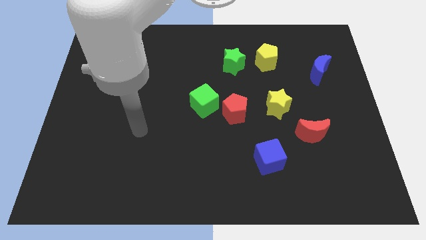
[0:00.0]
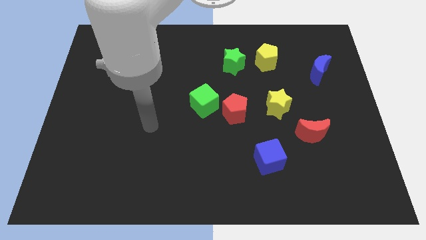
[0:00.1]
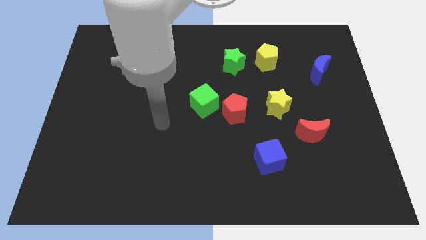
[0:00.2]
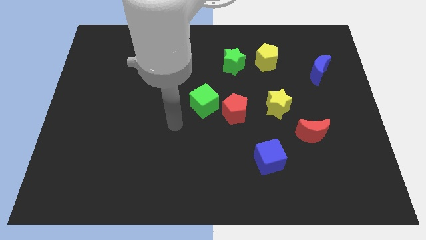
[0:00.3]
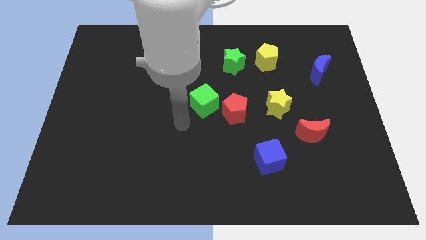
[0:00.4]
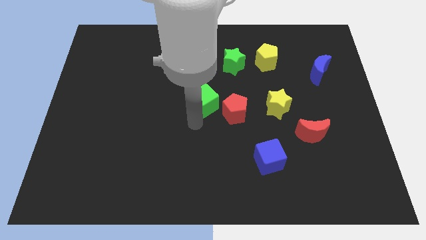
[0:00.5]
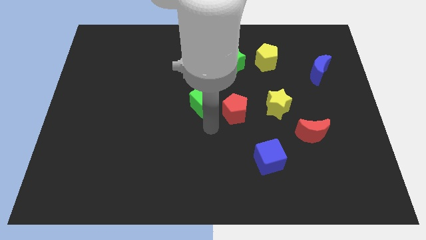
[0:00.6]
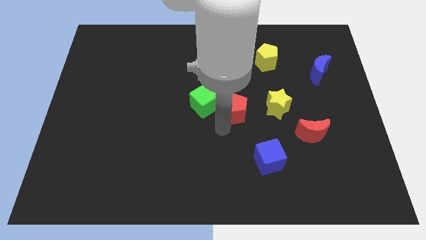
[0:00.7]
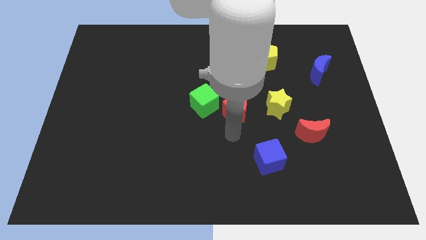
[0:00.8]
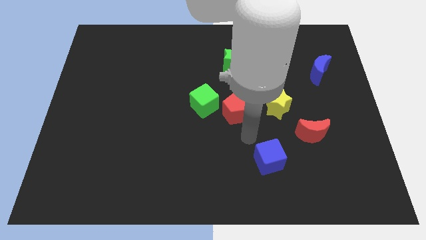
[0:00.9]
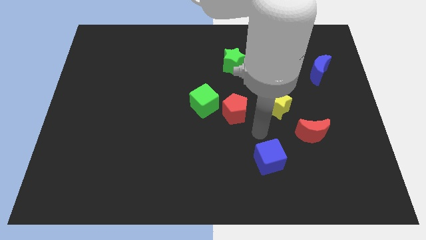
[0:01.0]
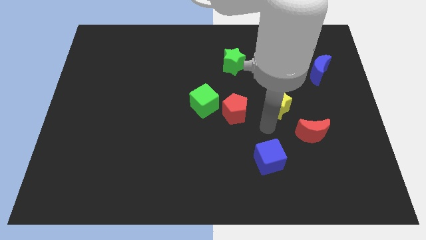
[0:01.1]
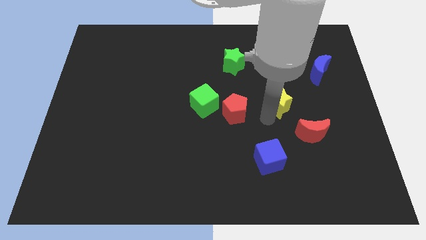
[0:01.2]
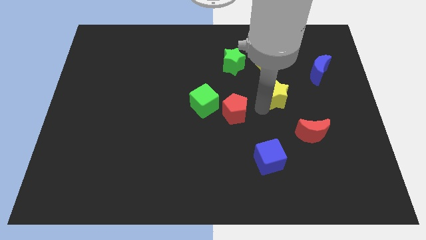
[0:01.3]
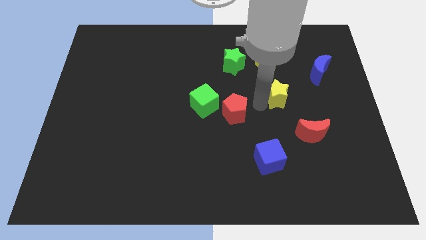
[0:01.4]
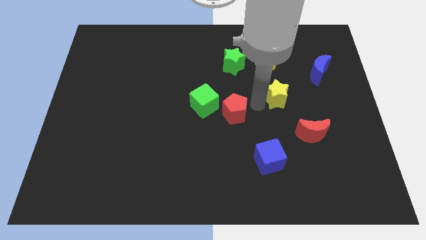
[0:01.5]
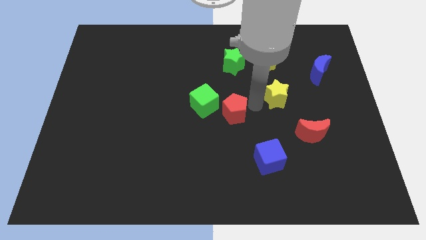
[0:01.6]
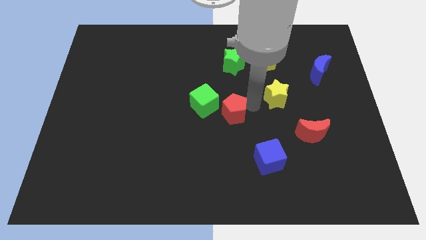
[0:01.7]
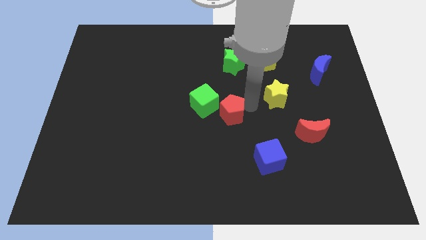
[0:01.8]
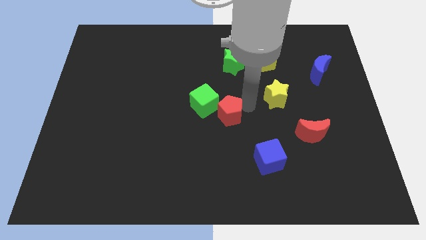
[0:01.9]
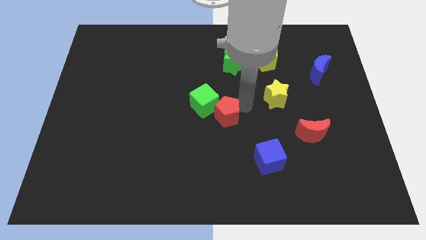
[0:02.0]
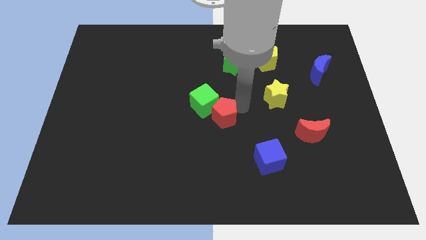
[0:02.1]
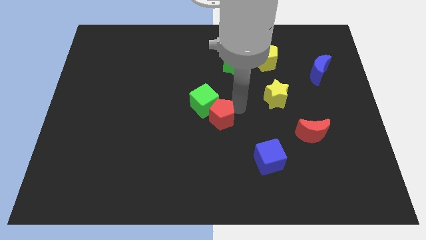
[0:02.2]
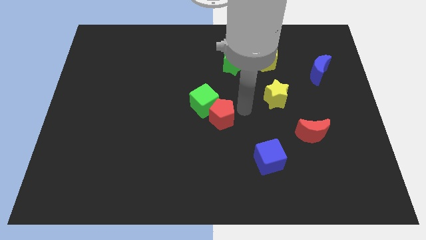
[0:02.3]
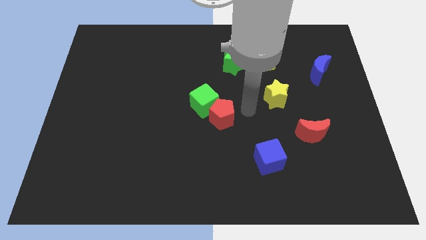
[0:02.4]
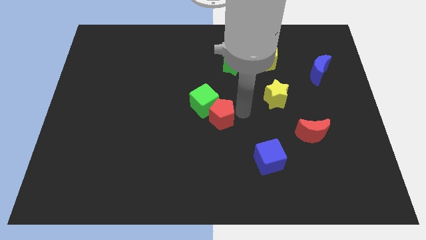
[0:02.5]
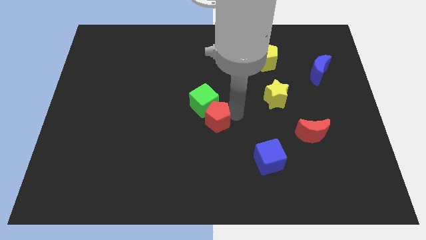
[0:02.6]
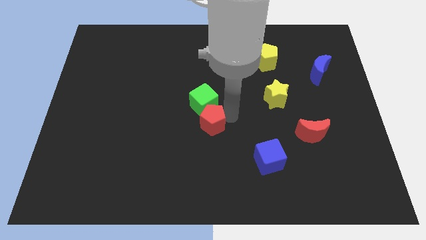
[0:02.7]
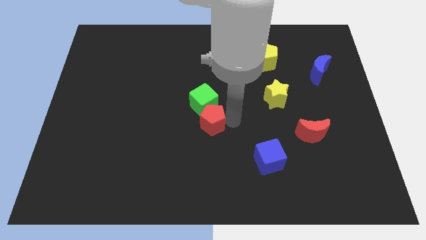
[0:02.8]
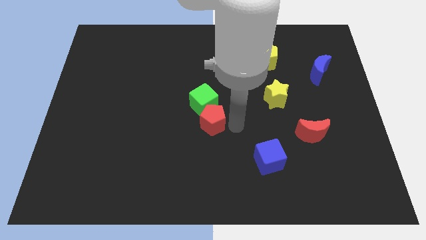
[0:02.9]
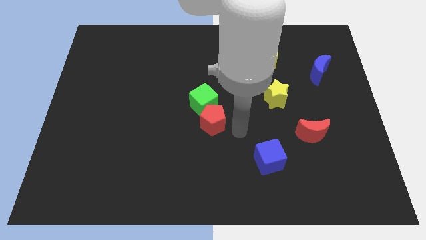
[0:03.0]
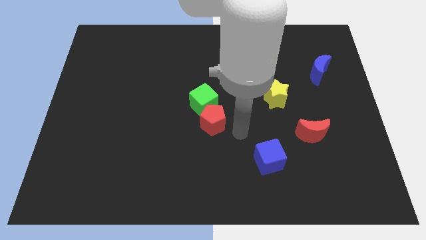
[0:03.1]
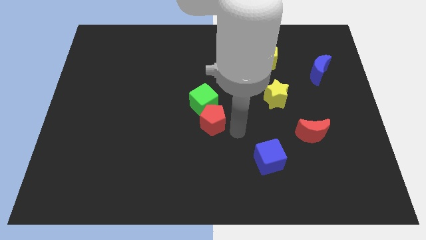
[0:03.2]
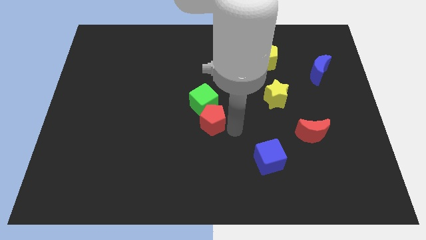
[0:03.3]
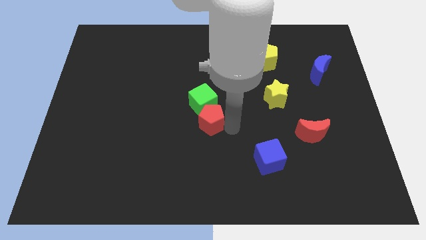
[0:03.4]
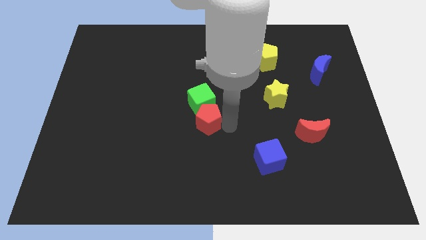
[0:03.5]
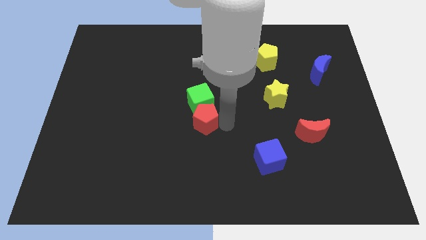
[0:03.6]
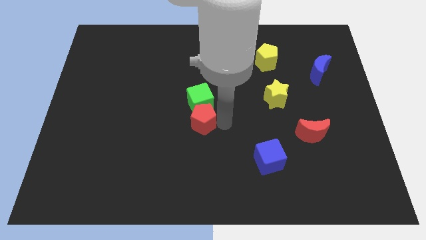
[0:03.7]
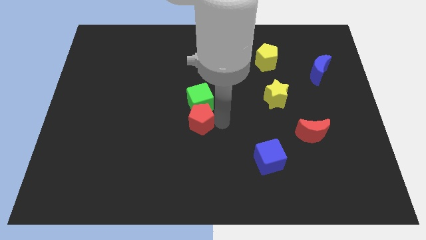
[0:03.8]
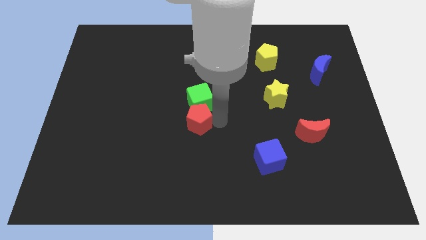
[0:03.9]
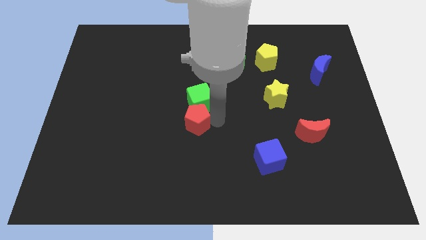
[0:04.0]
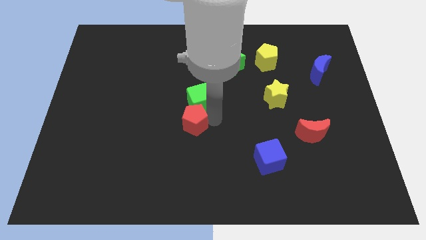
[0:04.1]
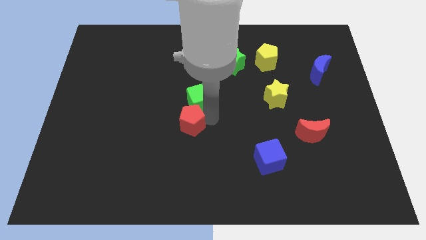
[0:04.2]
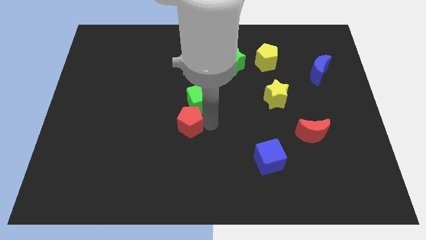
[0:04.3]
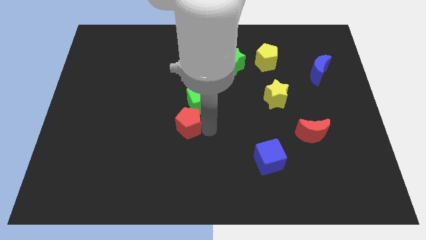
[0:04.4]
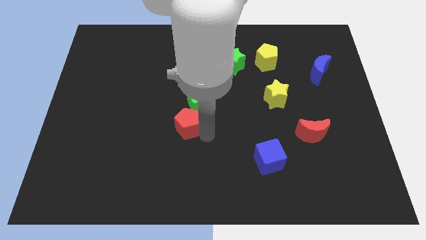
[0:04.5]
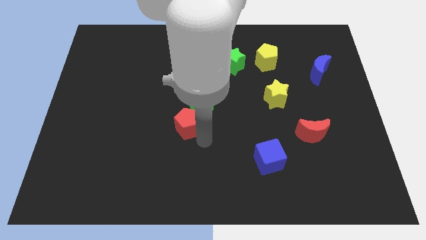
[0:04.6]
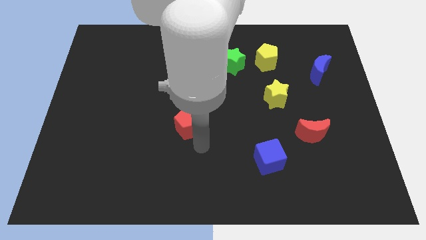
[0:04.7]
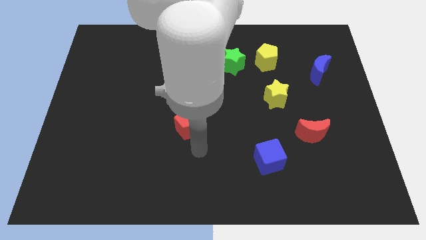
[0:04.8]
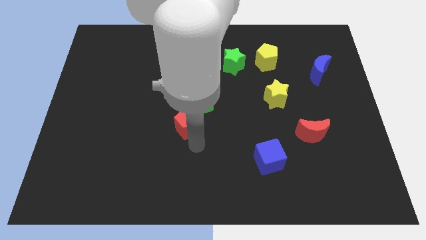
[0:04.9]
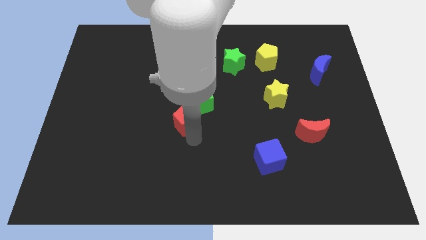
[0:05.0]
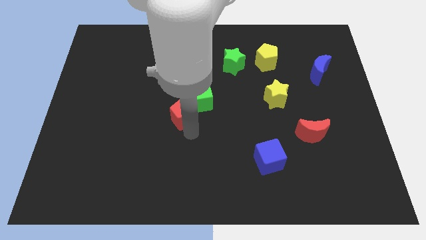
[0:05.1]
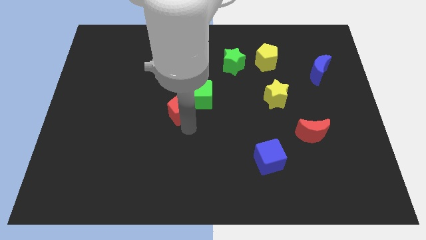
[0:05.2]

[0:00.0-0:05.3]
move the red pentagon left of the green cube

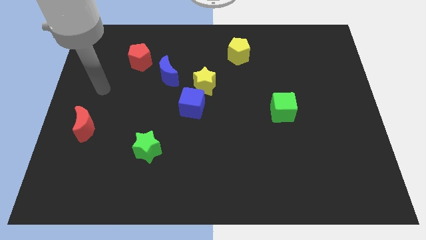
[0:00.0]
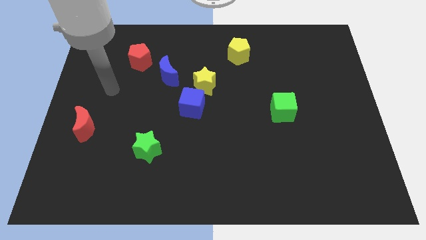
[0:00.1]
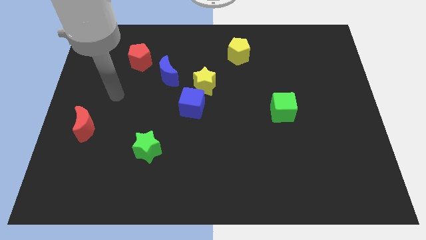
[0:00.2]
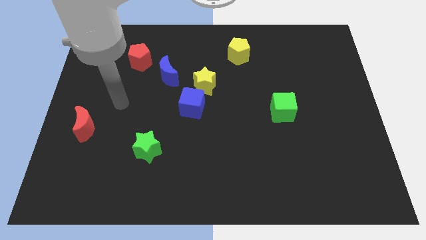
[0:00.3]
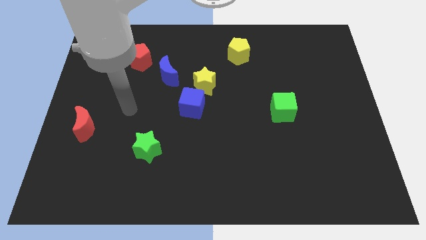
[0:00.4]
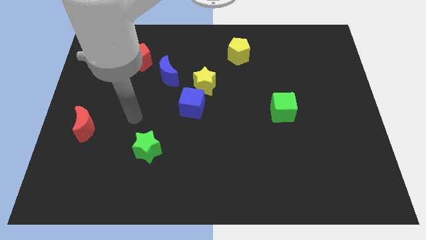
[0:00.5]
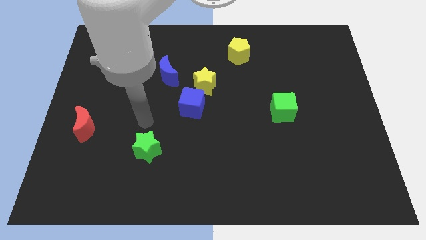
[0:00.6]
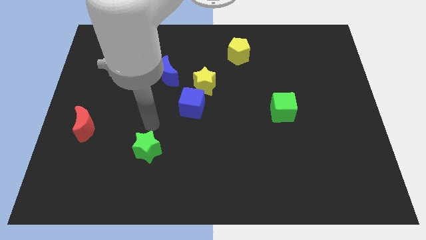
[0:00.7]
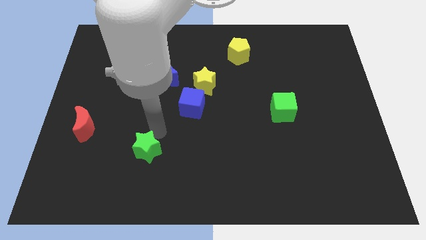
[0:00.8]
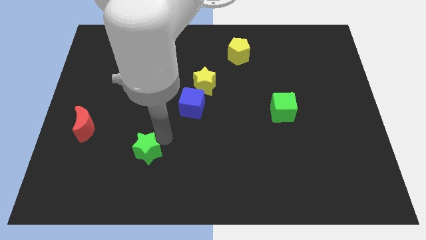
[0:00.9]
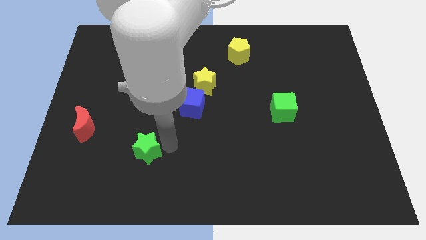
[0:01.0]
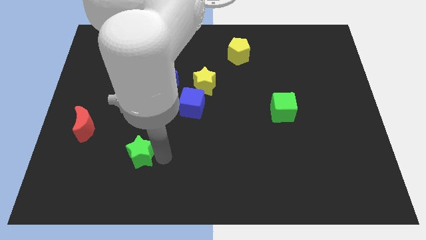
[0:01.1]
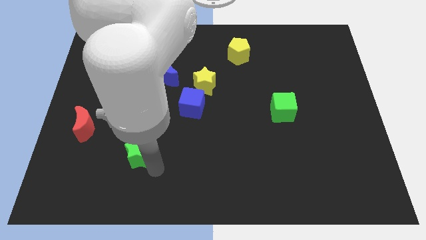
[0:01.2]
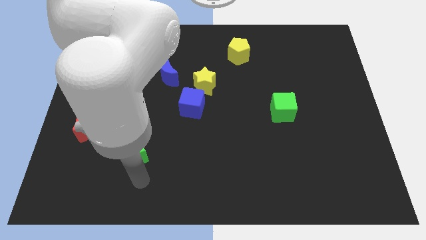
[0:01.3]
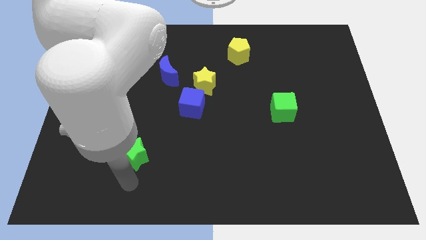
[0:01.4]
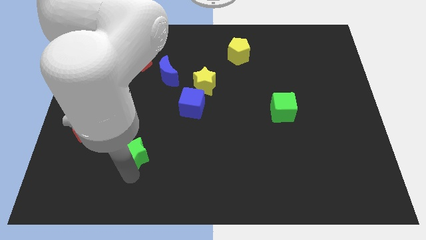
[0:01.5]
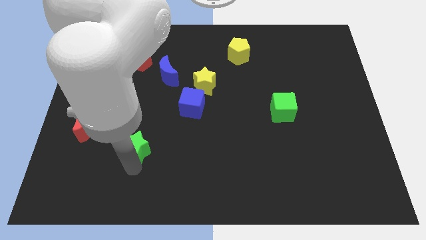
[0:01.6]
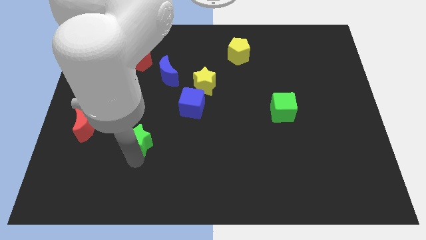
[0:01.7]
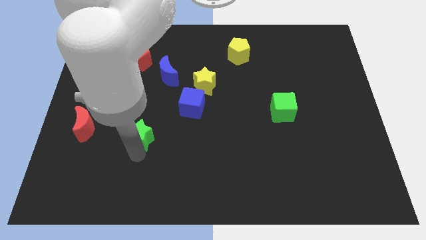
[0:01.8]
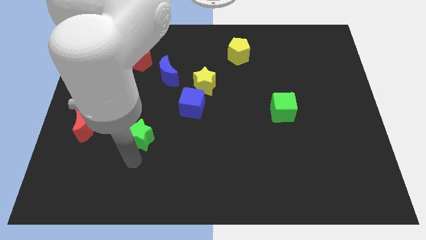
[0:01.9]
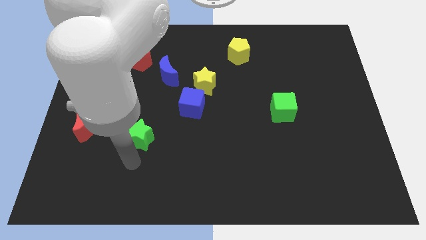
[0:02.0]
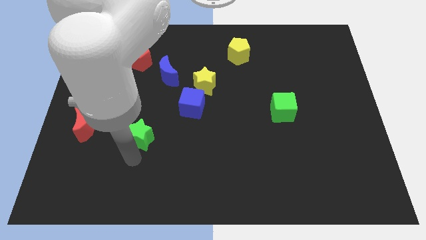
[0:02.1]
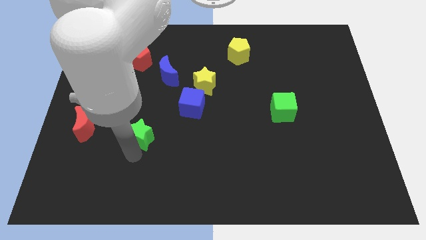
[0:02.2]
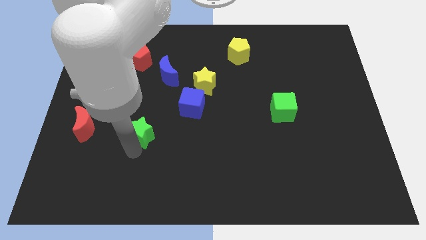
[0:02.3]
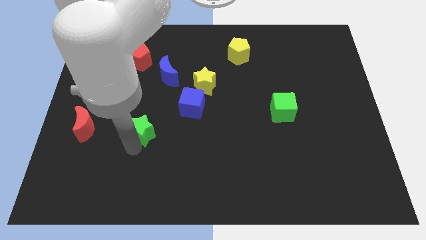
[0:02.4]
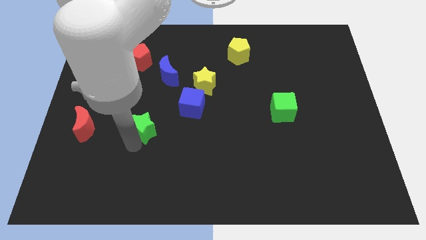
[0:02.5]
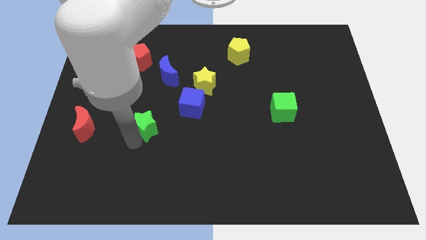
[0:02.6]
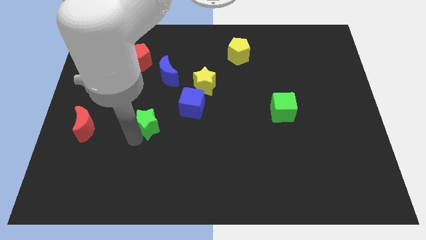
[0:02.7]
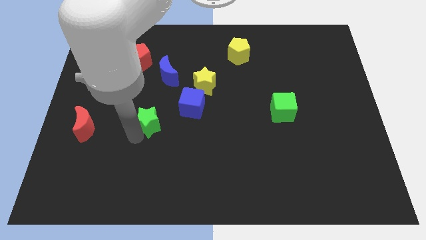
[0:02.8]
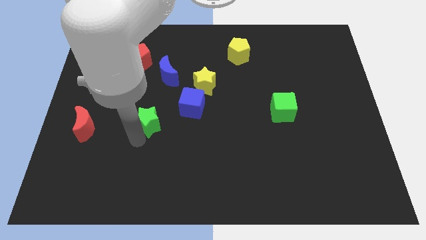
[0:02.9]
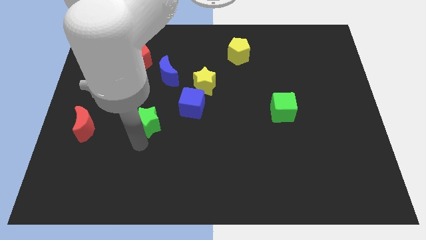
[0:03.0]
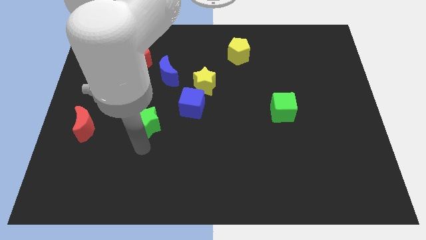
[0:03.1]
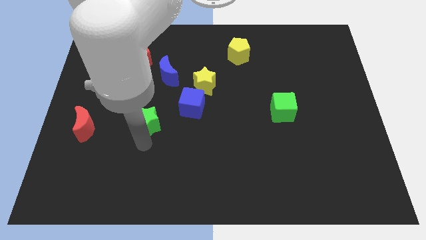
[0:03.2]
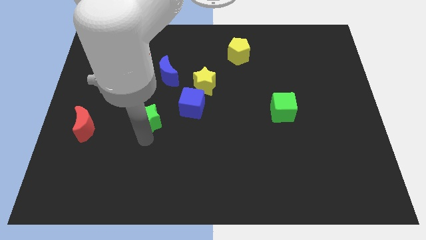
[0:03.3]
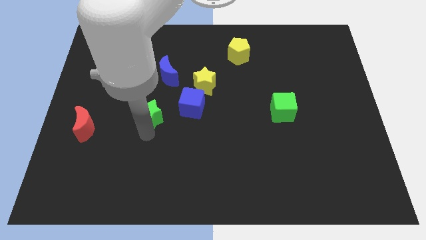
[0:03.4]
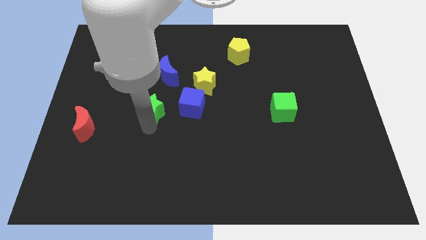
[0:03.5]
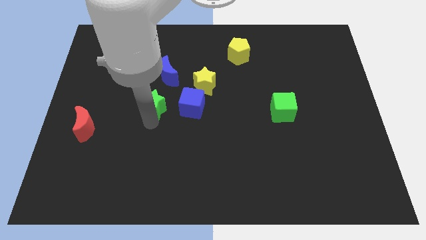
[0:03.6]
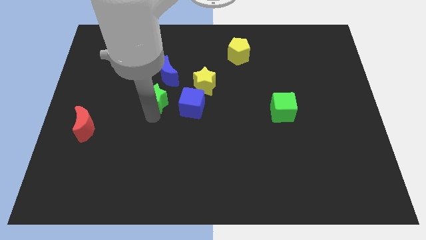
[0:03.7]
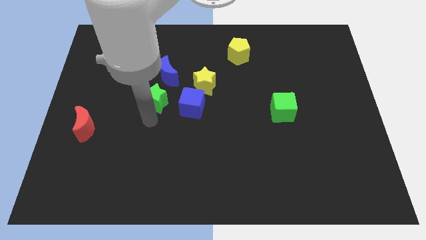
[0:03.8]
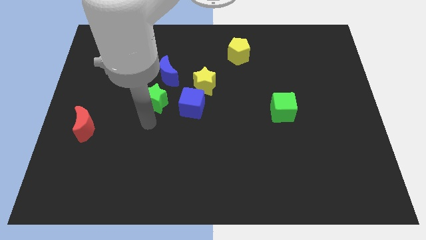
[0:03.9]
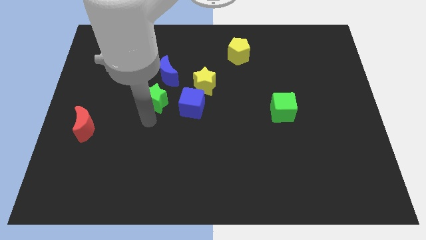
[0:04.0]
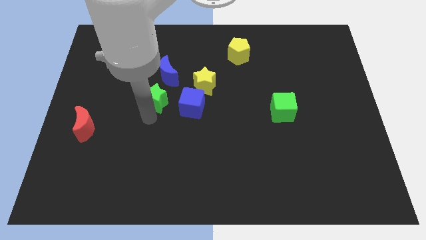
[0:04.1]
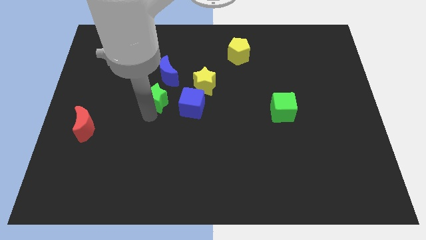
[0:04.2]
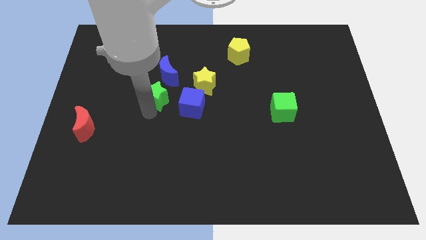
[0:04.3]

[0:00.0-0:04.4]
put the green star just left of the yellow star
